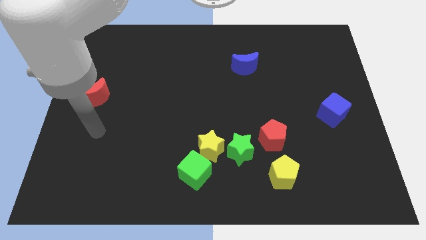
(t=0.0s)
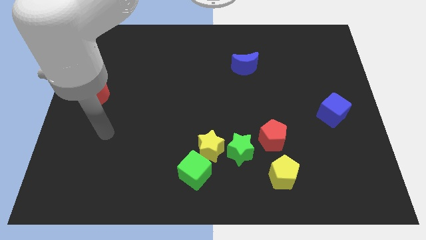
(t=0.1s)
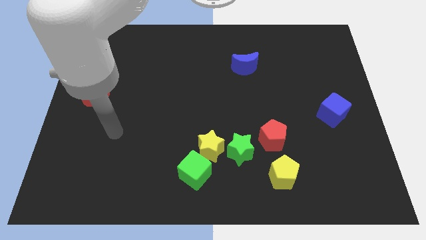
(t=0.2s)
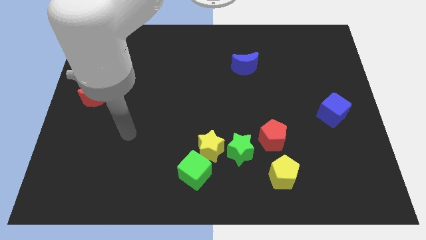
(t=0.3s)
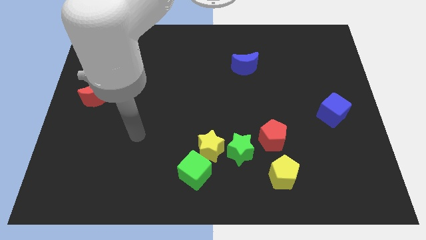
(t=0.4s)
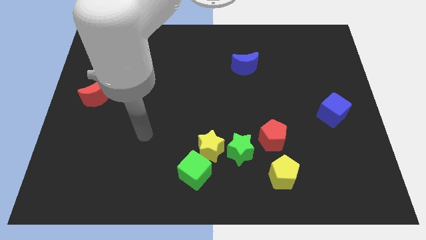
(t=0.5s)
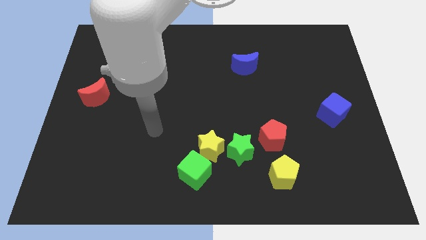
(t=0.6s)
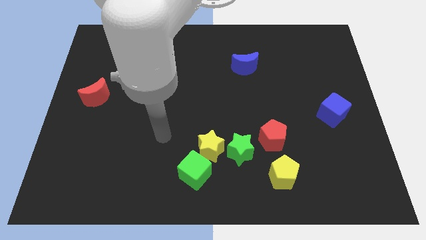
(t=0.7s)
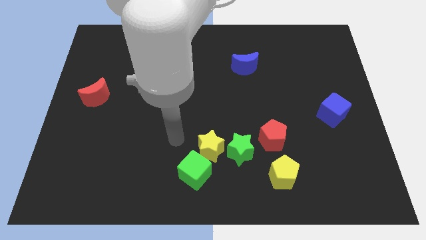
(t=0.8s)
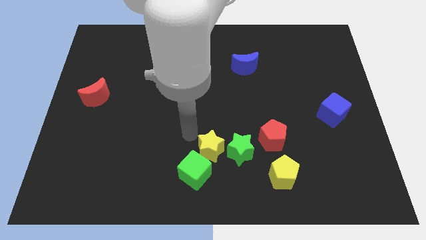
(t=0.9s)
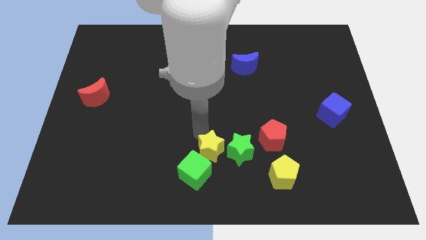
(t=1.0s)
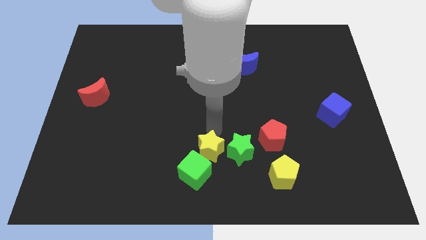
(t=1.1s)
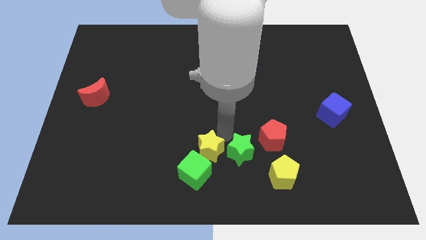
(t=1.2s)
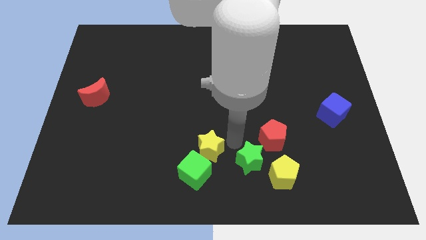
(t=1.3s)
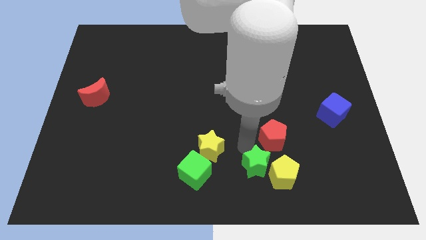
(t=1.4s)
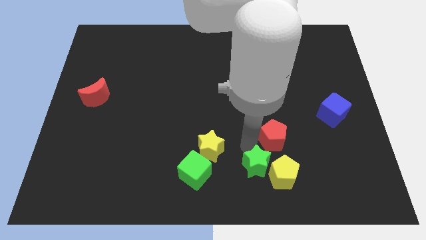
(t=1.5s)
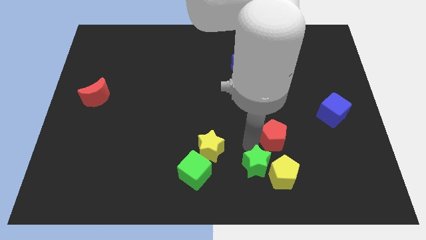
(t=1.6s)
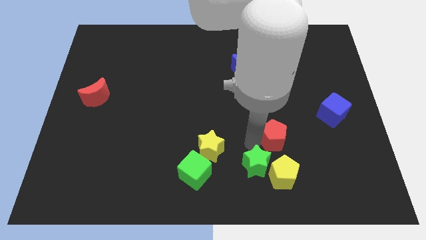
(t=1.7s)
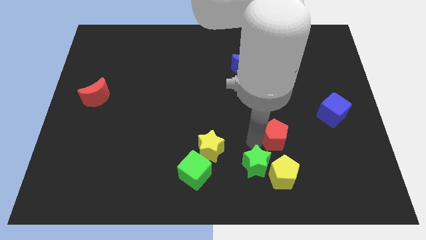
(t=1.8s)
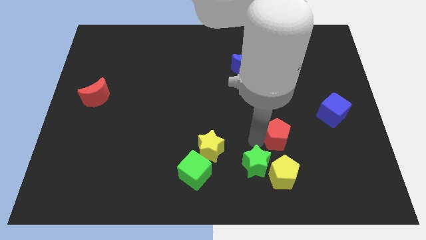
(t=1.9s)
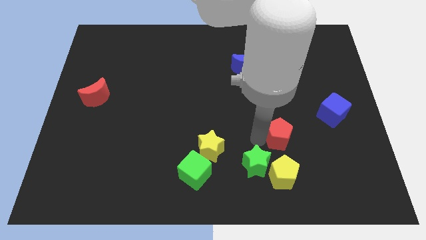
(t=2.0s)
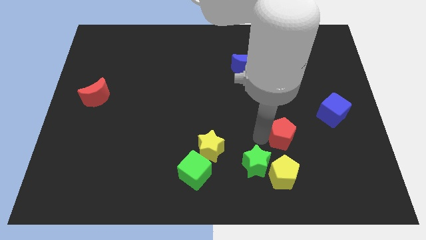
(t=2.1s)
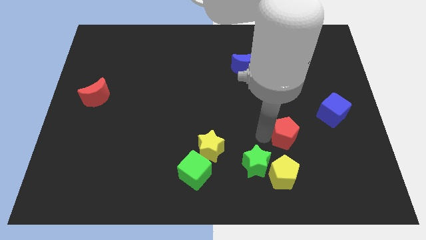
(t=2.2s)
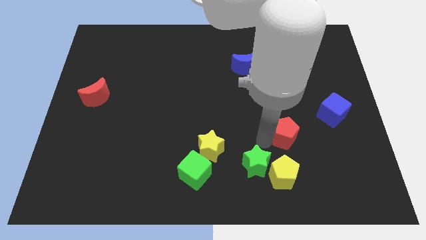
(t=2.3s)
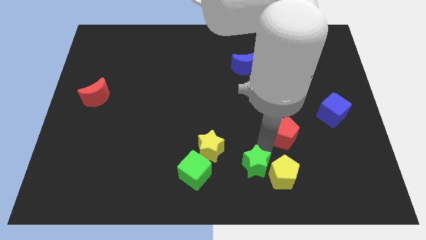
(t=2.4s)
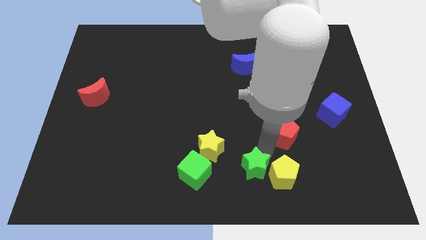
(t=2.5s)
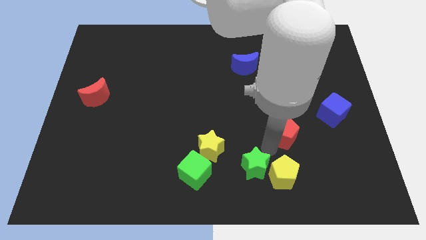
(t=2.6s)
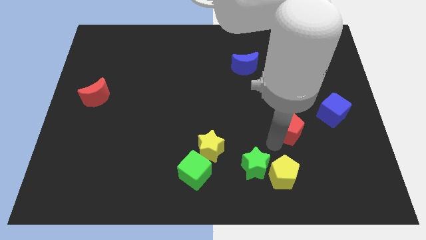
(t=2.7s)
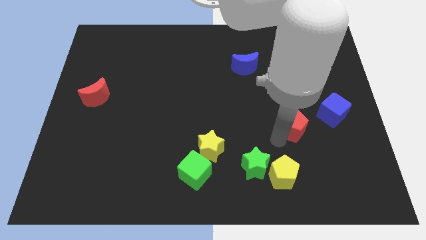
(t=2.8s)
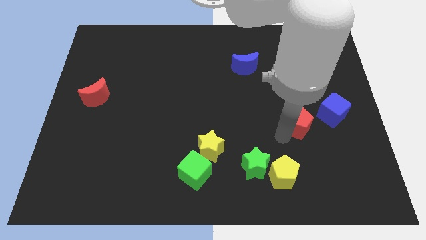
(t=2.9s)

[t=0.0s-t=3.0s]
slightly move the red pentagon up and to the right

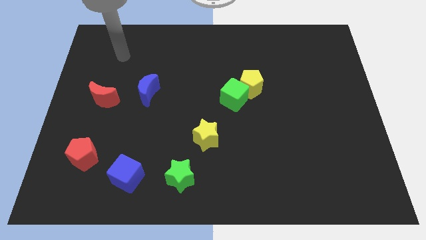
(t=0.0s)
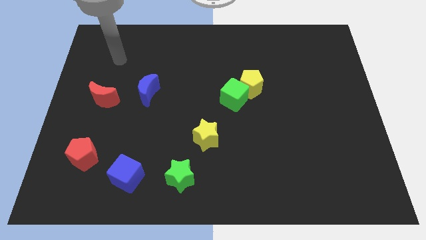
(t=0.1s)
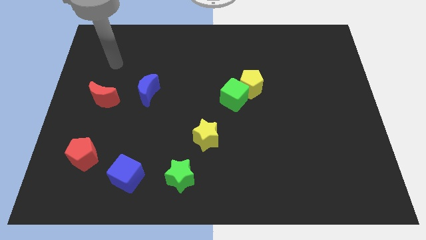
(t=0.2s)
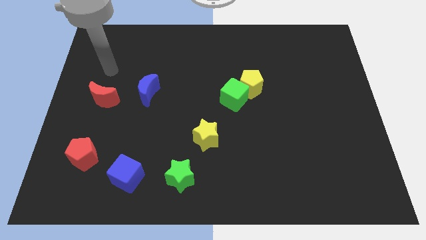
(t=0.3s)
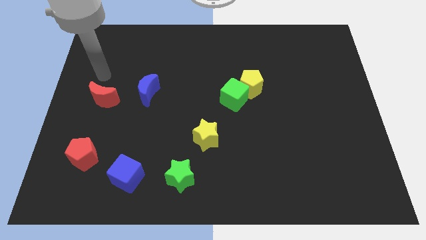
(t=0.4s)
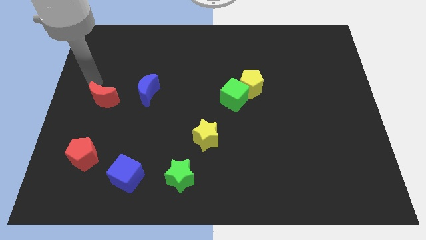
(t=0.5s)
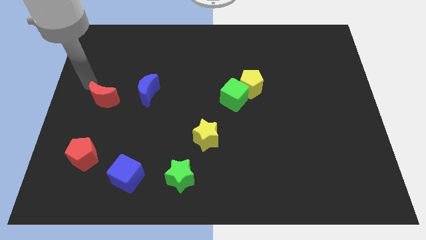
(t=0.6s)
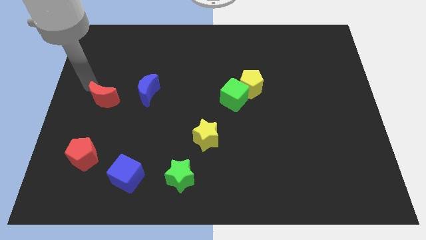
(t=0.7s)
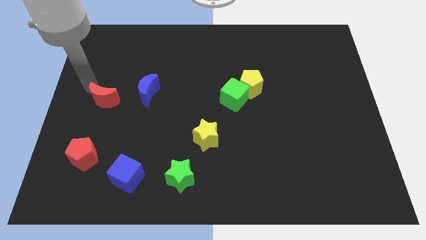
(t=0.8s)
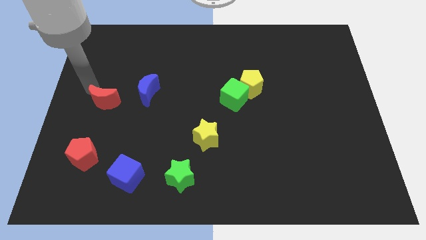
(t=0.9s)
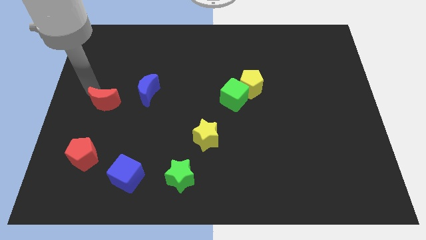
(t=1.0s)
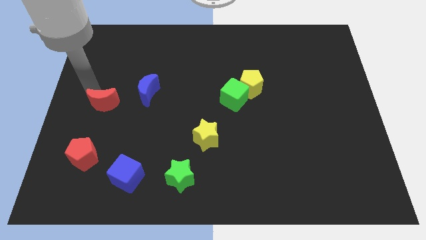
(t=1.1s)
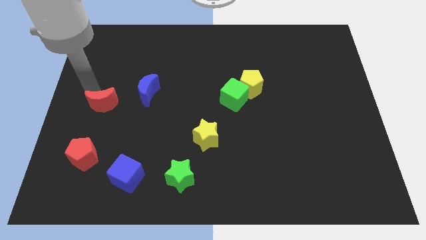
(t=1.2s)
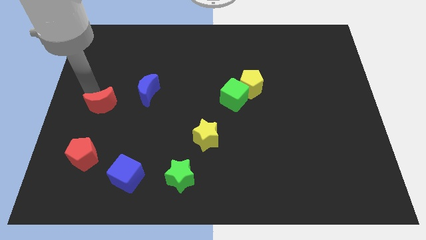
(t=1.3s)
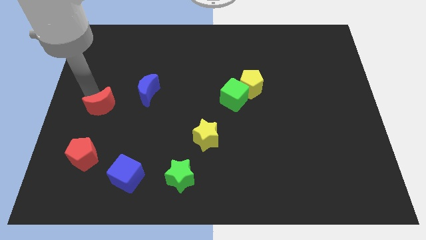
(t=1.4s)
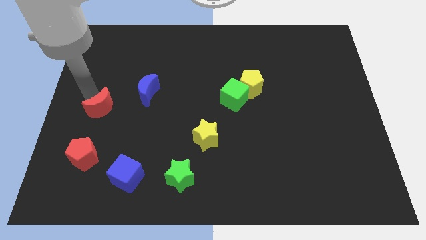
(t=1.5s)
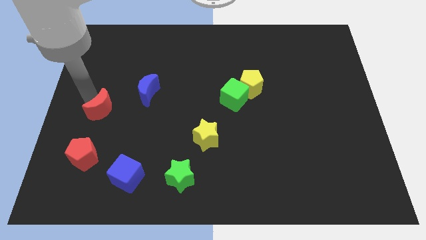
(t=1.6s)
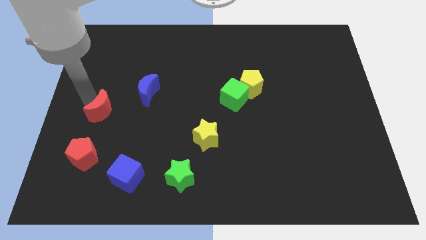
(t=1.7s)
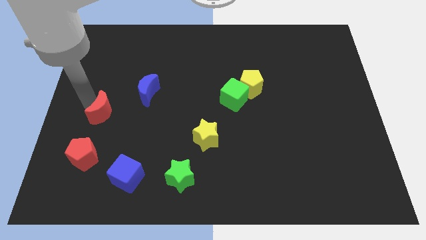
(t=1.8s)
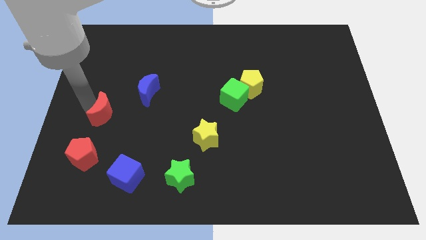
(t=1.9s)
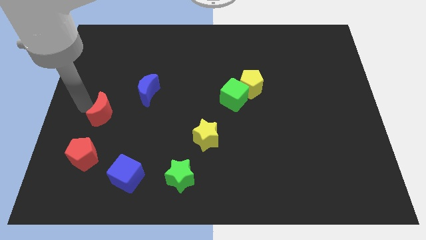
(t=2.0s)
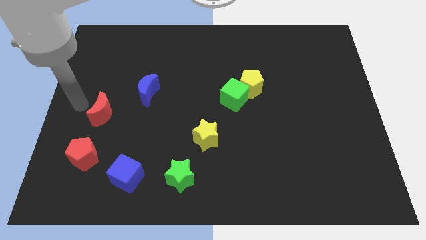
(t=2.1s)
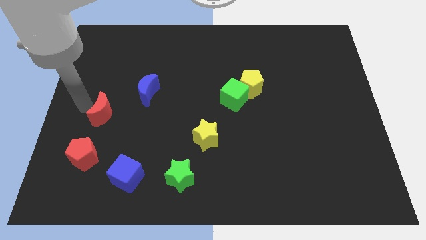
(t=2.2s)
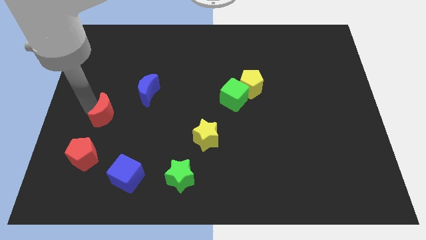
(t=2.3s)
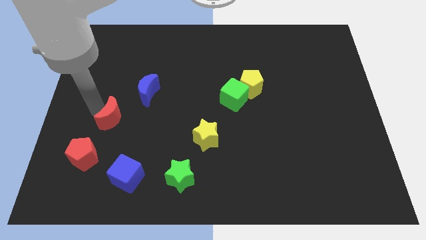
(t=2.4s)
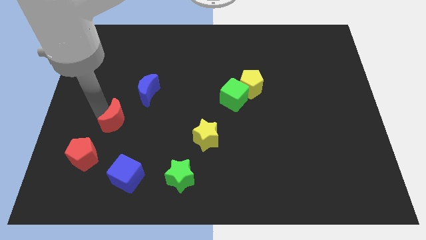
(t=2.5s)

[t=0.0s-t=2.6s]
slide the red moon somewhat down and to the right

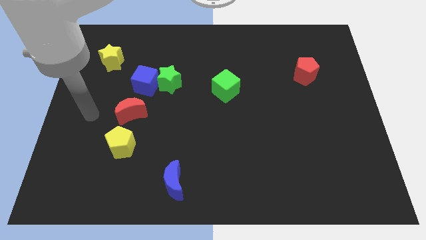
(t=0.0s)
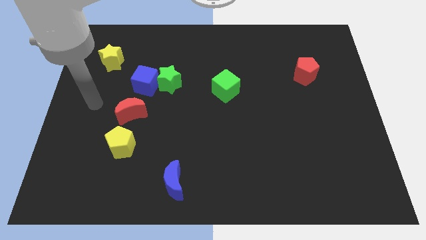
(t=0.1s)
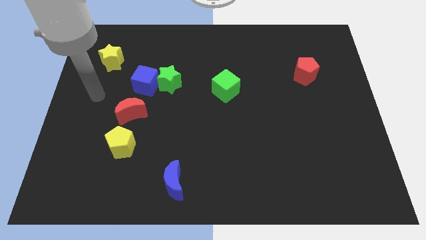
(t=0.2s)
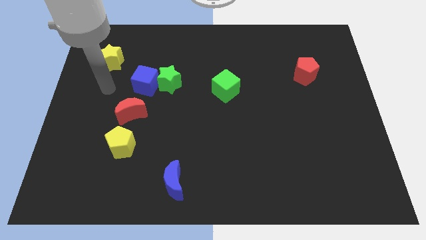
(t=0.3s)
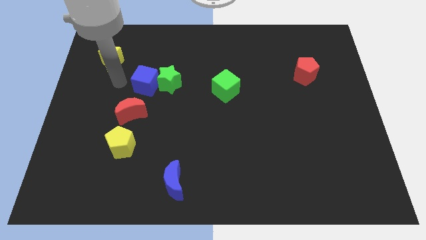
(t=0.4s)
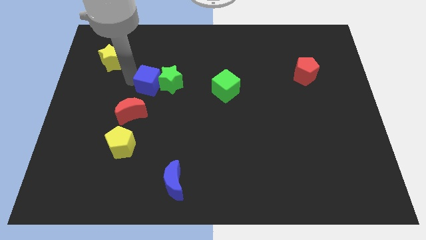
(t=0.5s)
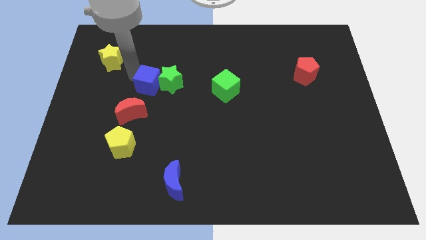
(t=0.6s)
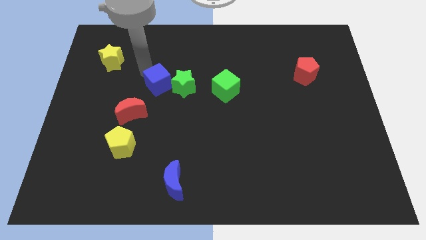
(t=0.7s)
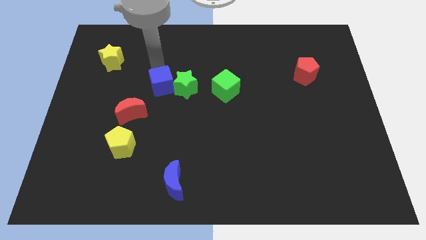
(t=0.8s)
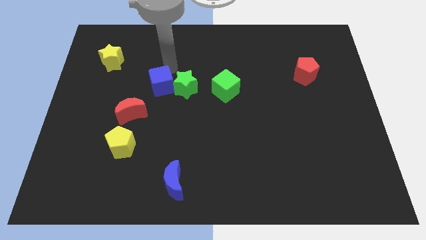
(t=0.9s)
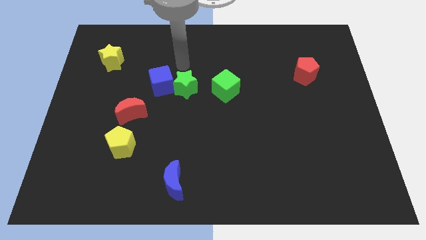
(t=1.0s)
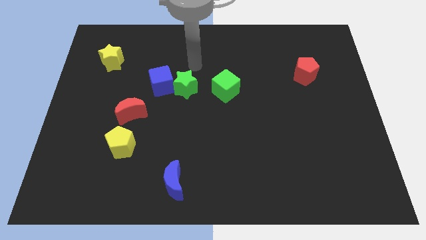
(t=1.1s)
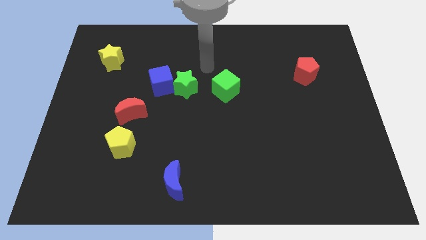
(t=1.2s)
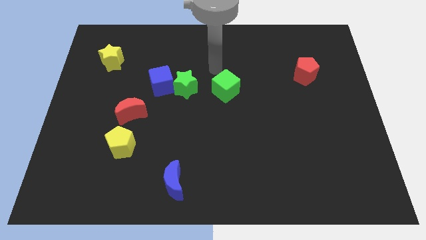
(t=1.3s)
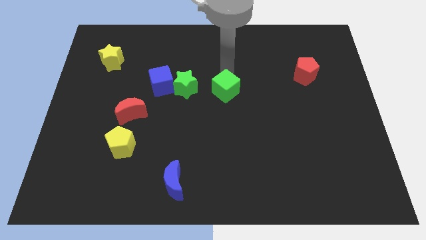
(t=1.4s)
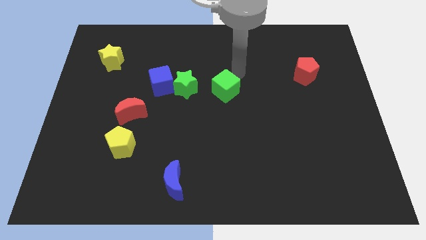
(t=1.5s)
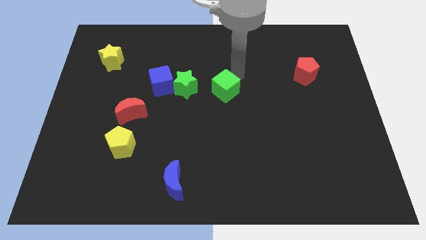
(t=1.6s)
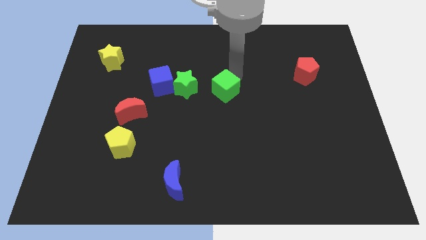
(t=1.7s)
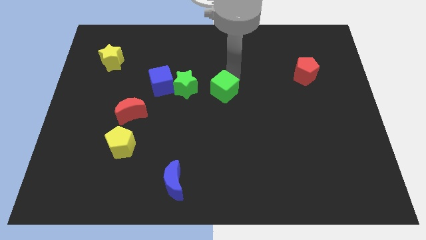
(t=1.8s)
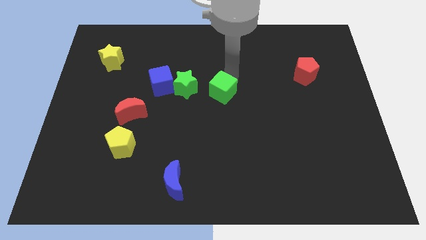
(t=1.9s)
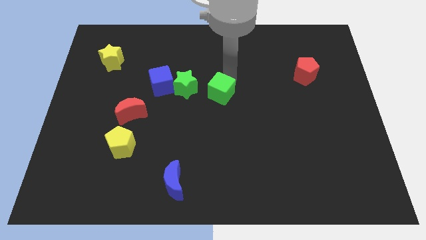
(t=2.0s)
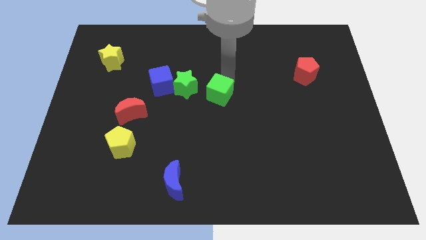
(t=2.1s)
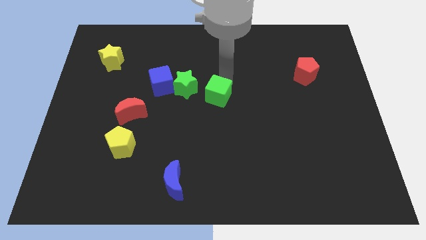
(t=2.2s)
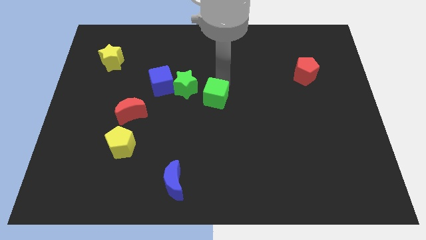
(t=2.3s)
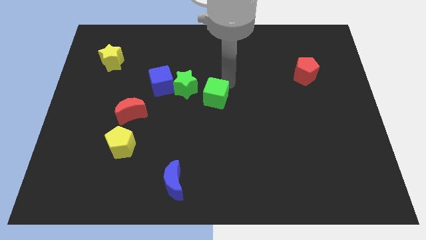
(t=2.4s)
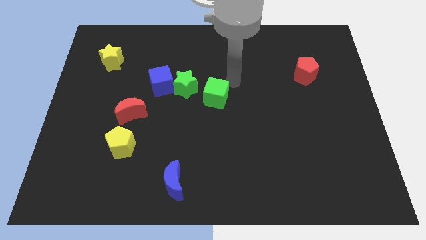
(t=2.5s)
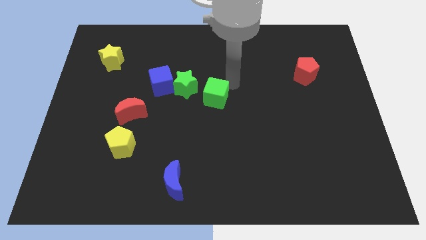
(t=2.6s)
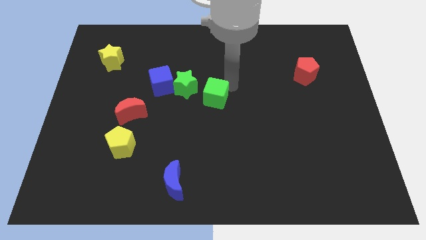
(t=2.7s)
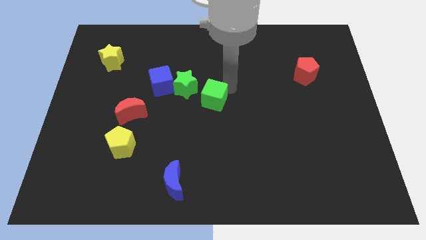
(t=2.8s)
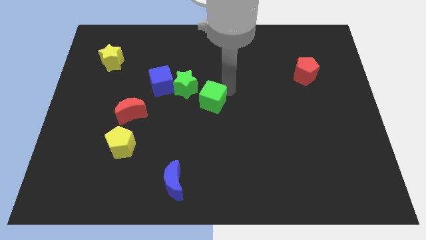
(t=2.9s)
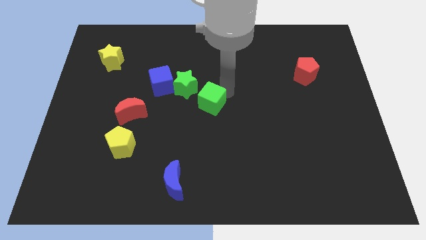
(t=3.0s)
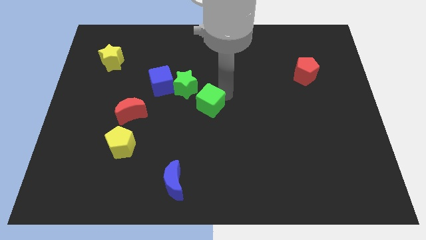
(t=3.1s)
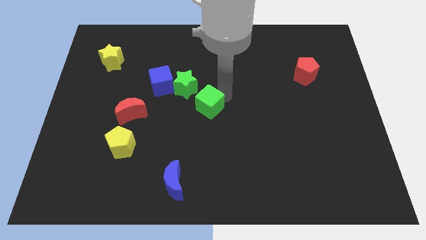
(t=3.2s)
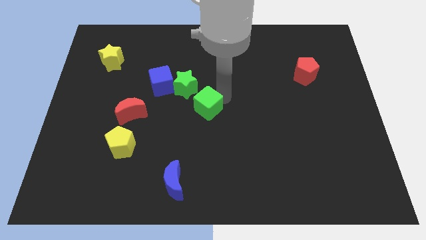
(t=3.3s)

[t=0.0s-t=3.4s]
slide the green cube a little bit downwards and then to the left
